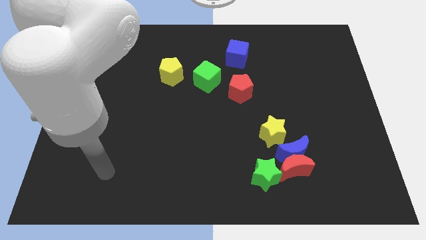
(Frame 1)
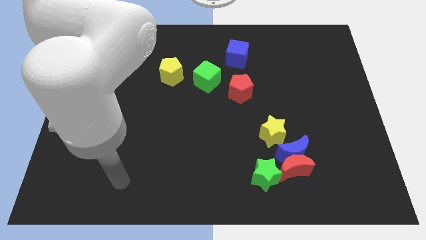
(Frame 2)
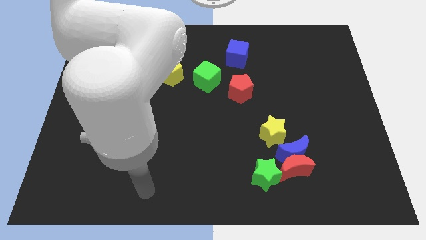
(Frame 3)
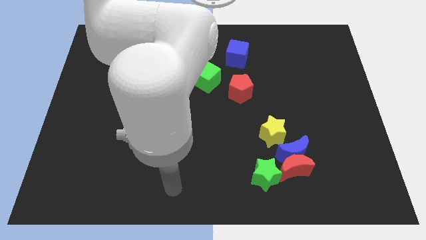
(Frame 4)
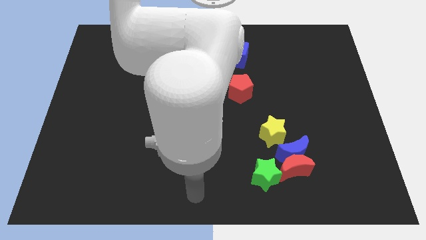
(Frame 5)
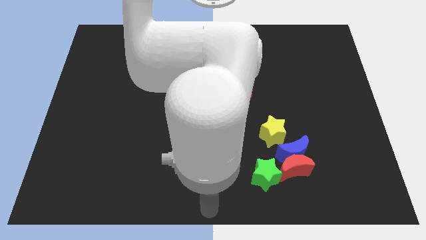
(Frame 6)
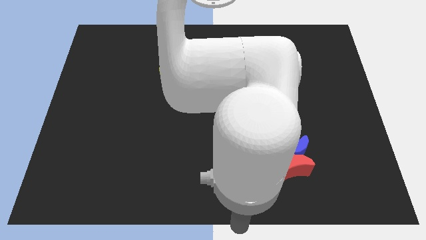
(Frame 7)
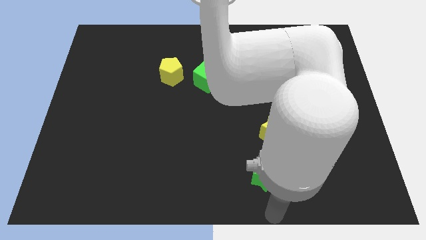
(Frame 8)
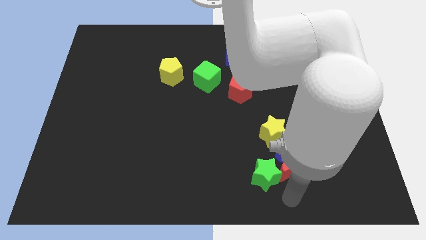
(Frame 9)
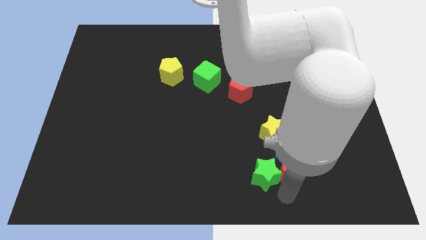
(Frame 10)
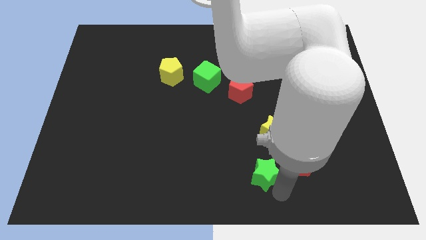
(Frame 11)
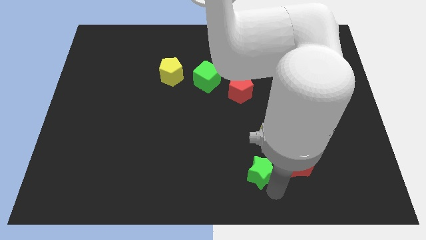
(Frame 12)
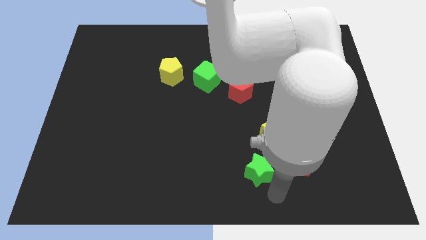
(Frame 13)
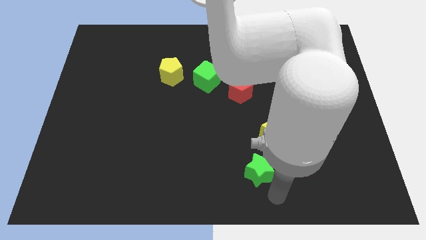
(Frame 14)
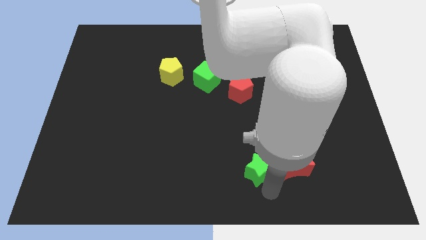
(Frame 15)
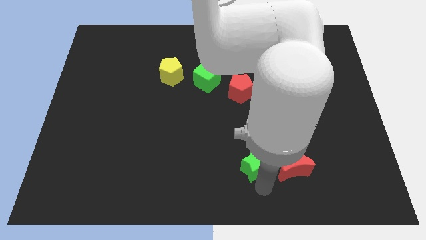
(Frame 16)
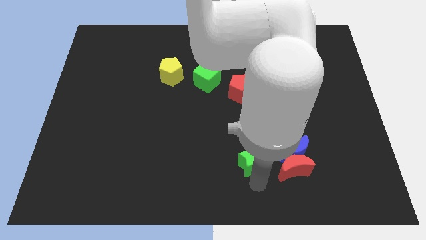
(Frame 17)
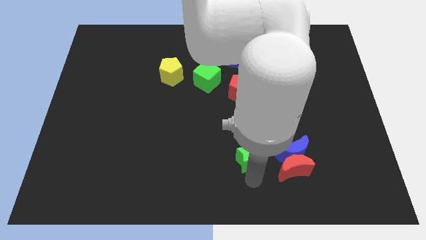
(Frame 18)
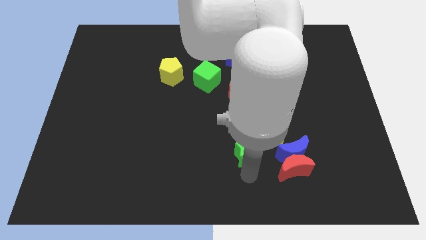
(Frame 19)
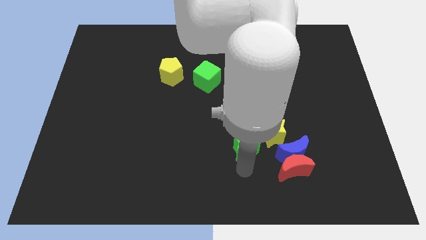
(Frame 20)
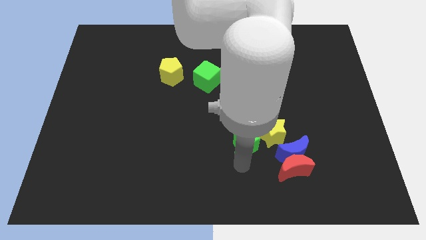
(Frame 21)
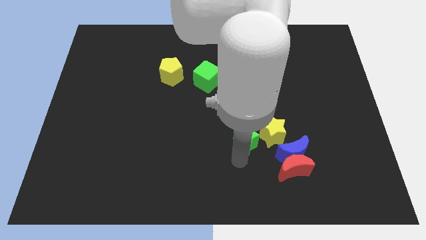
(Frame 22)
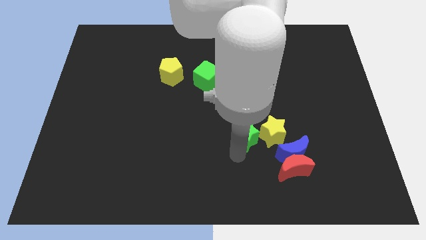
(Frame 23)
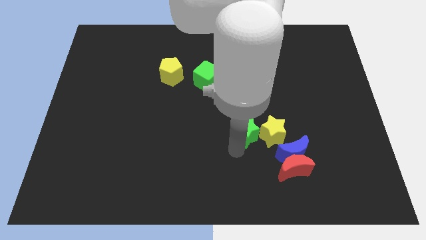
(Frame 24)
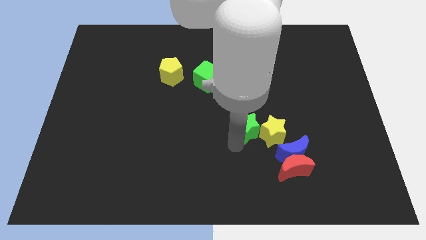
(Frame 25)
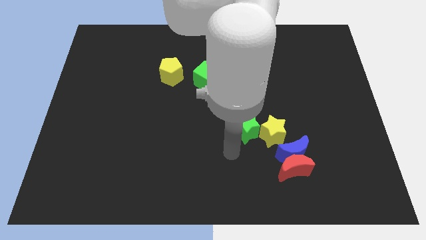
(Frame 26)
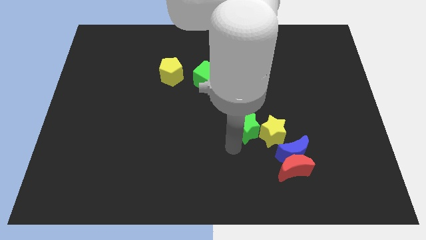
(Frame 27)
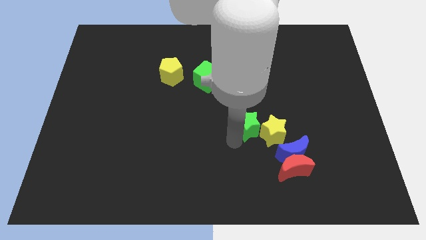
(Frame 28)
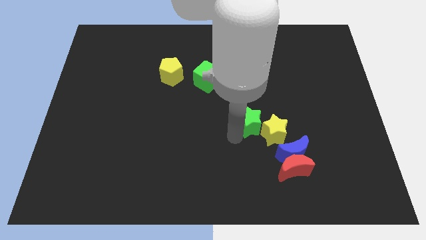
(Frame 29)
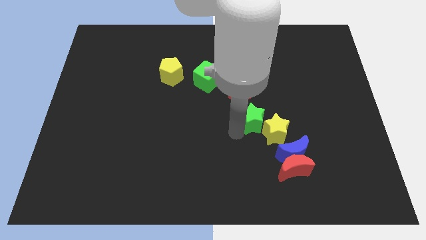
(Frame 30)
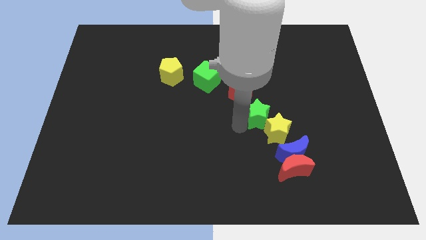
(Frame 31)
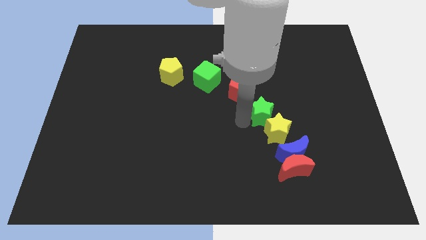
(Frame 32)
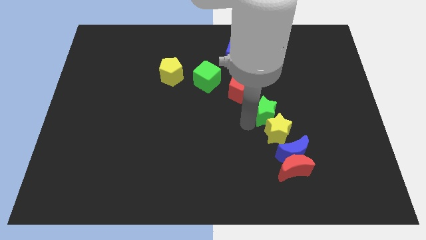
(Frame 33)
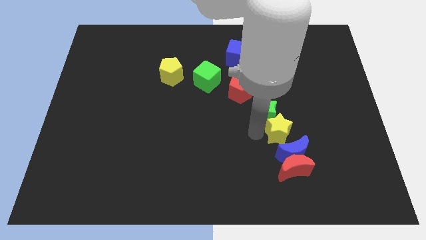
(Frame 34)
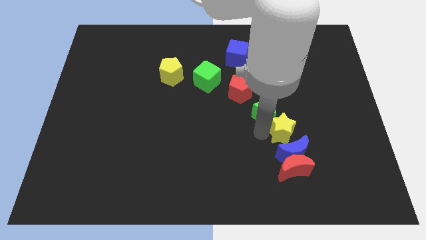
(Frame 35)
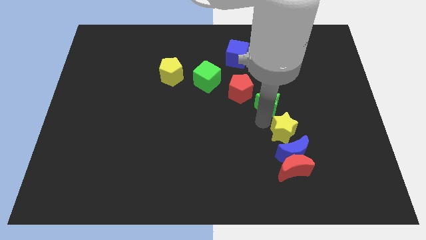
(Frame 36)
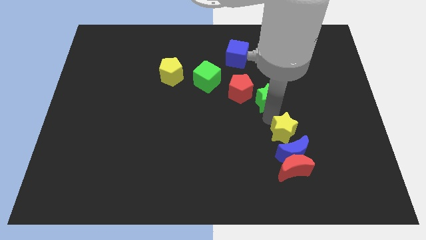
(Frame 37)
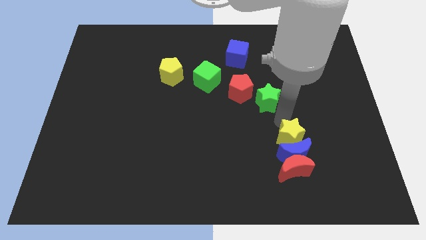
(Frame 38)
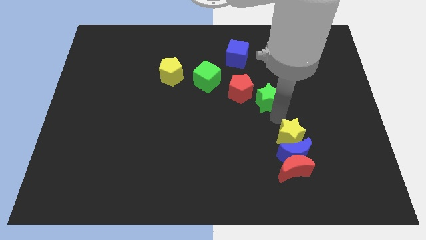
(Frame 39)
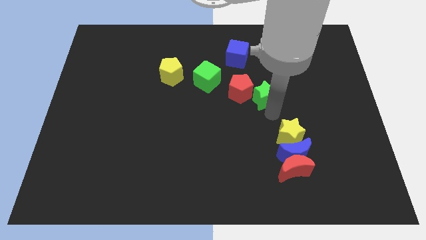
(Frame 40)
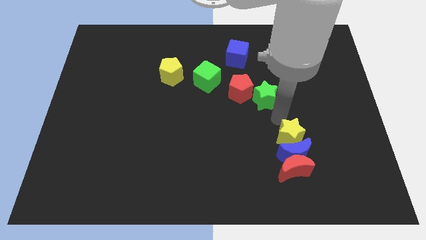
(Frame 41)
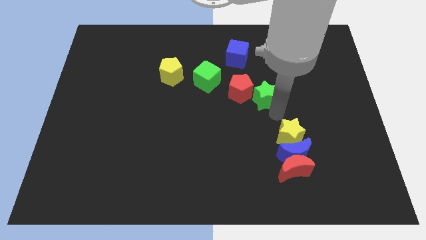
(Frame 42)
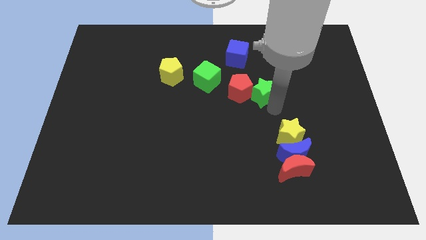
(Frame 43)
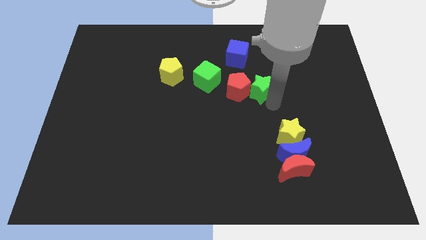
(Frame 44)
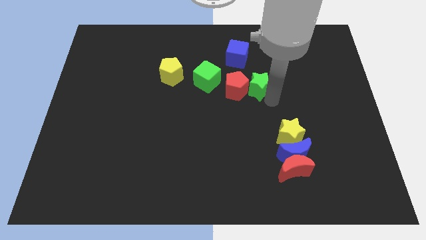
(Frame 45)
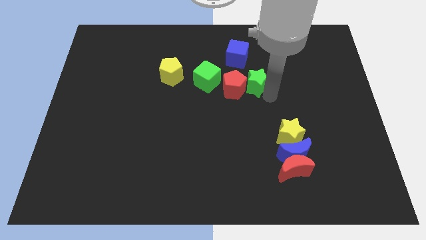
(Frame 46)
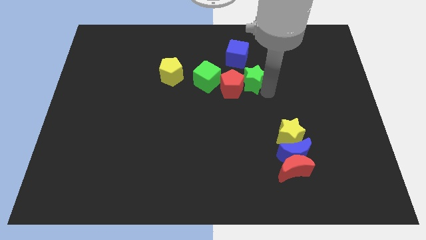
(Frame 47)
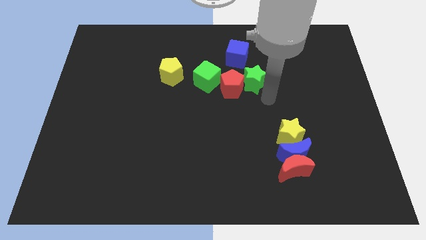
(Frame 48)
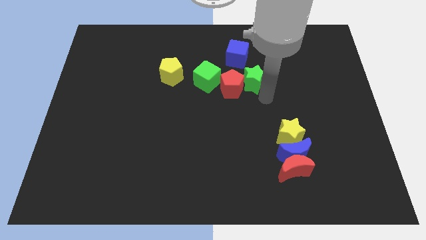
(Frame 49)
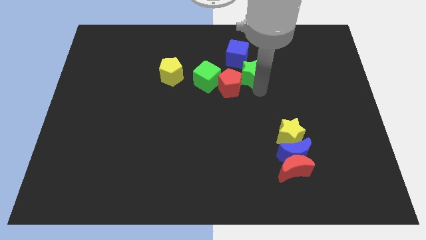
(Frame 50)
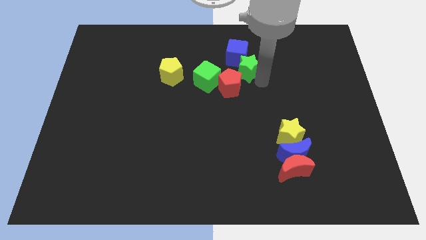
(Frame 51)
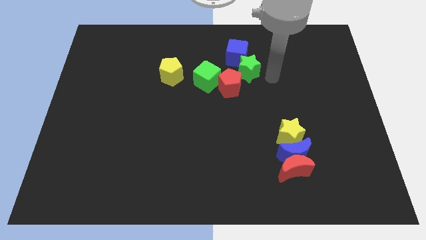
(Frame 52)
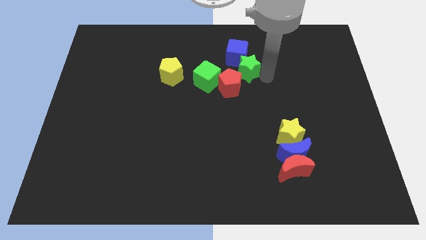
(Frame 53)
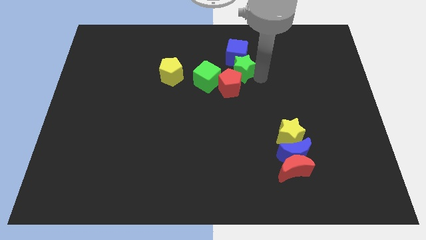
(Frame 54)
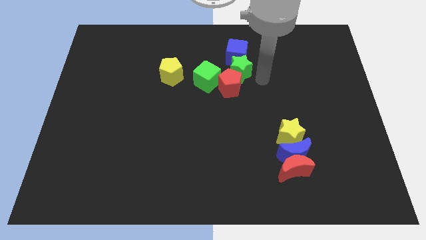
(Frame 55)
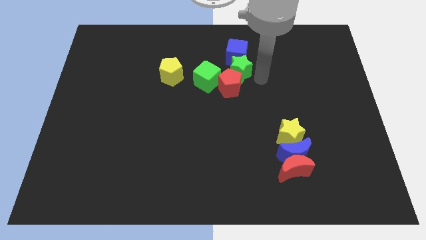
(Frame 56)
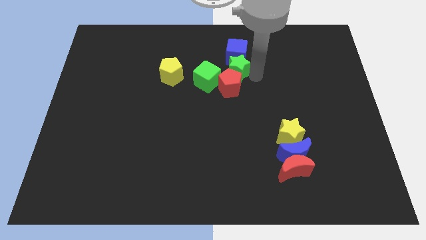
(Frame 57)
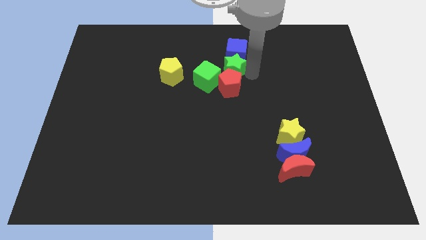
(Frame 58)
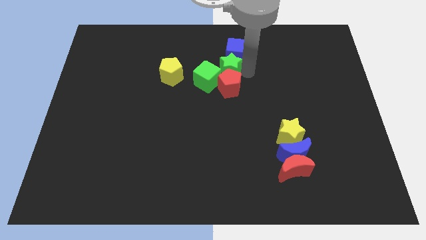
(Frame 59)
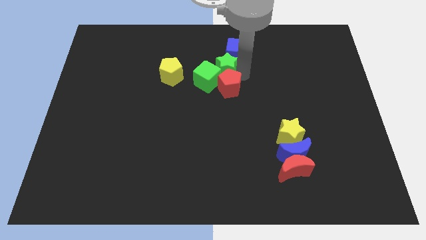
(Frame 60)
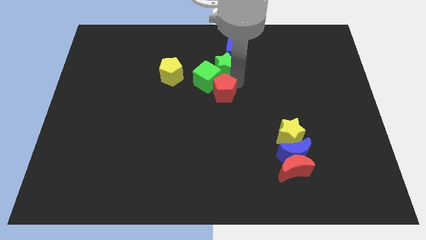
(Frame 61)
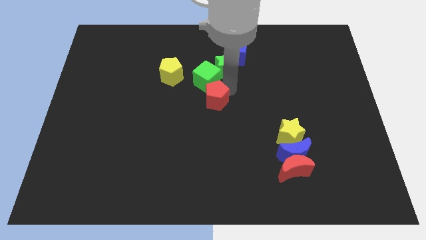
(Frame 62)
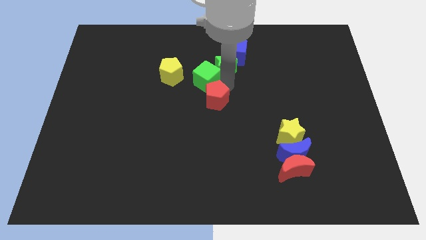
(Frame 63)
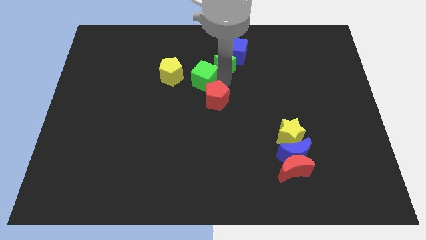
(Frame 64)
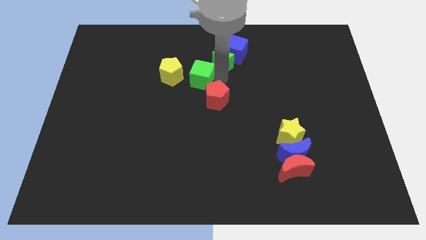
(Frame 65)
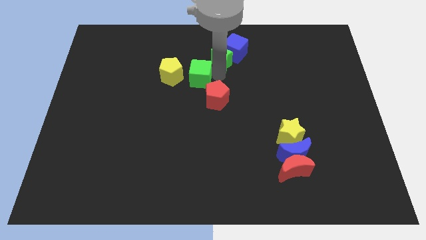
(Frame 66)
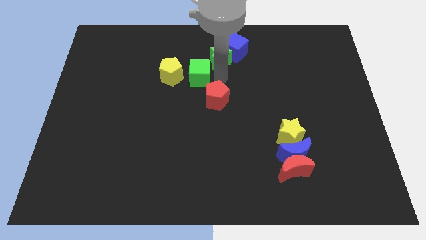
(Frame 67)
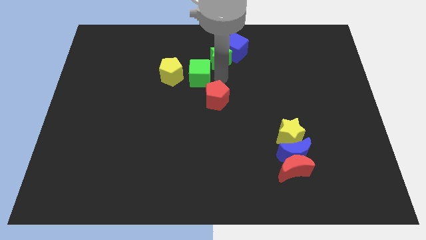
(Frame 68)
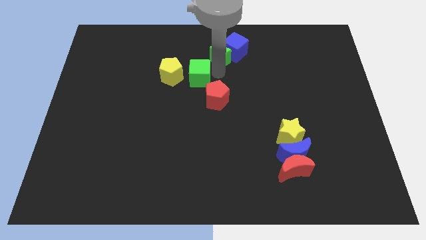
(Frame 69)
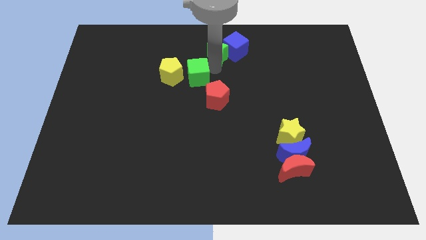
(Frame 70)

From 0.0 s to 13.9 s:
move the green star to the top side
